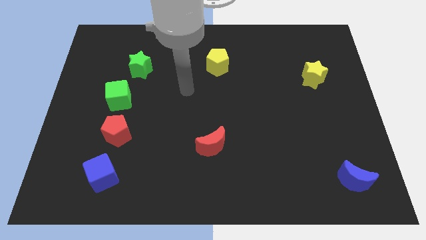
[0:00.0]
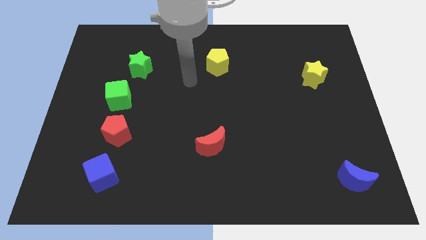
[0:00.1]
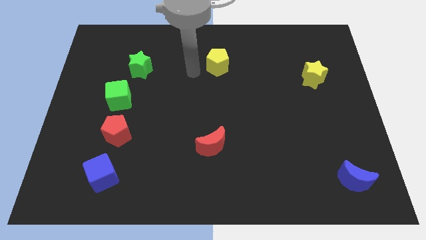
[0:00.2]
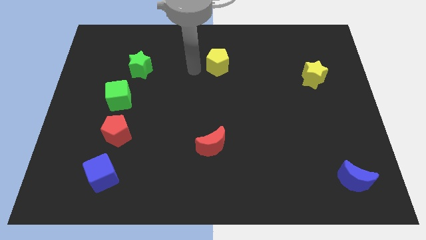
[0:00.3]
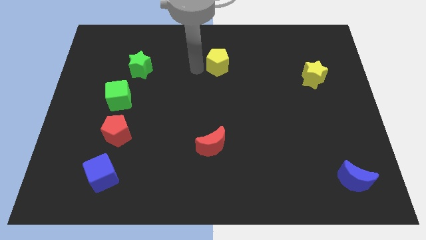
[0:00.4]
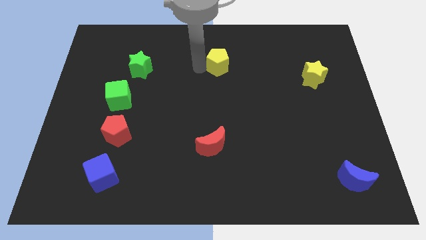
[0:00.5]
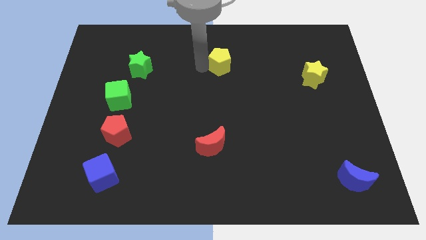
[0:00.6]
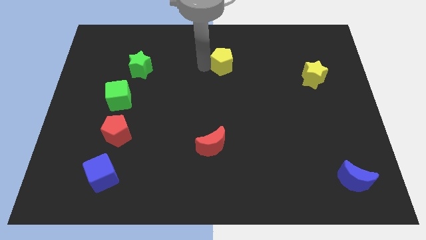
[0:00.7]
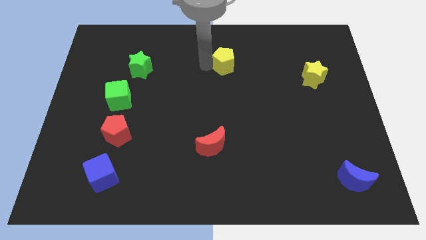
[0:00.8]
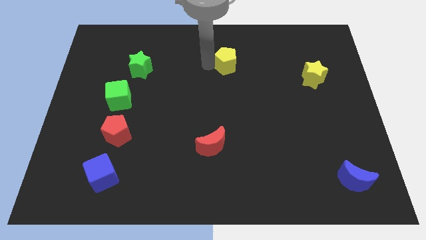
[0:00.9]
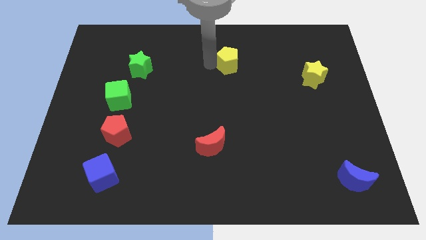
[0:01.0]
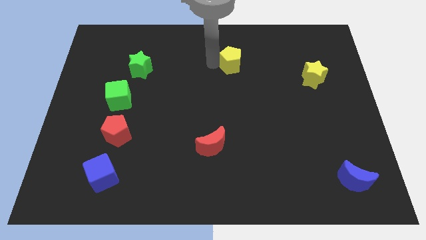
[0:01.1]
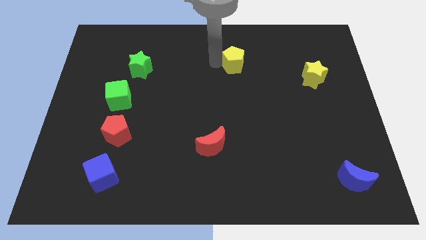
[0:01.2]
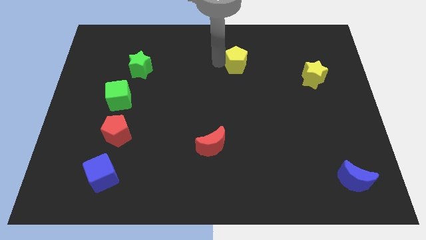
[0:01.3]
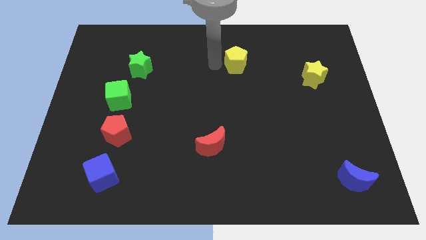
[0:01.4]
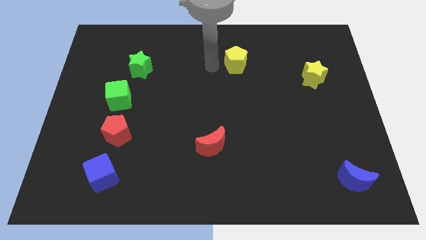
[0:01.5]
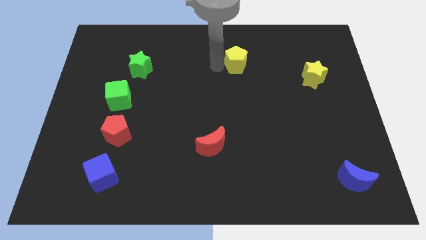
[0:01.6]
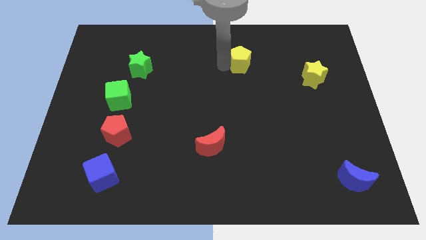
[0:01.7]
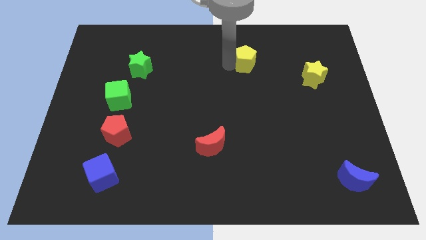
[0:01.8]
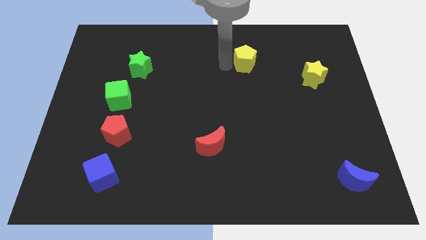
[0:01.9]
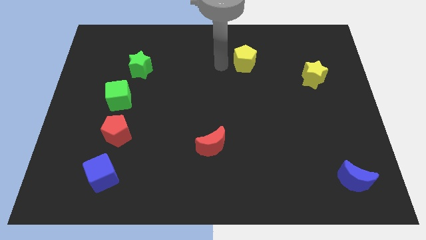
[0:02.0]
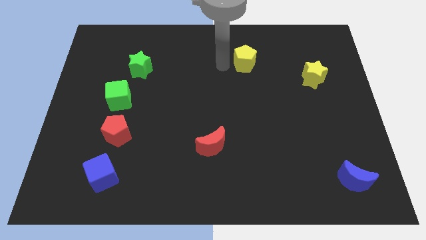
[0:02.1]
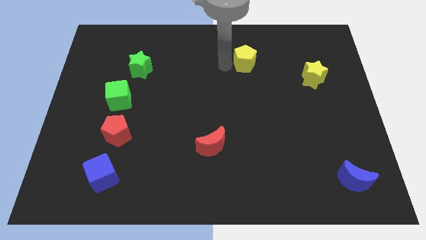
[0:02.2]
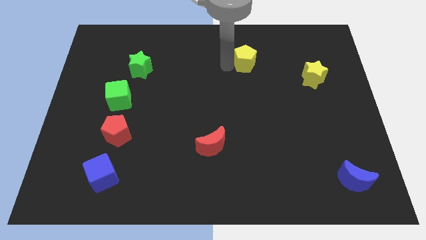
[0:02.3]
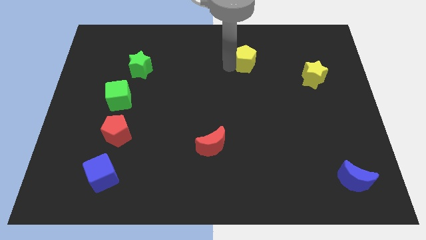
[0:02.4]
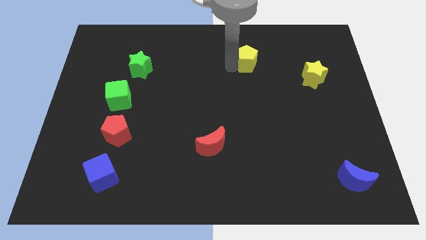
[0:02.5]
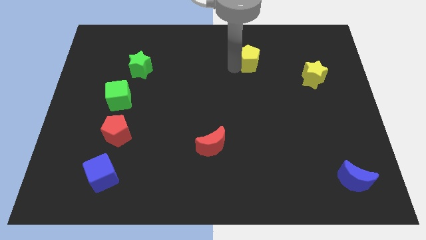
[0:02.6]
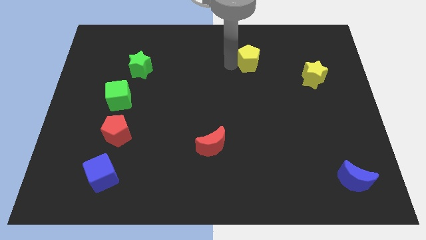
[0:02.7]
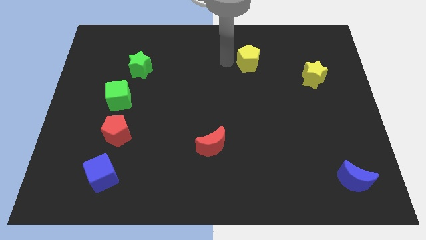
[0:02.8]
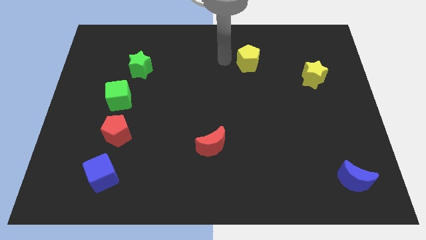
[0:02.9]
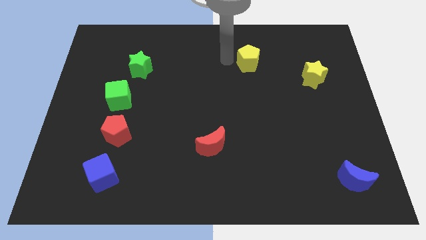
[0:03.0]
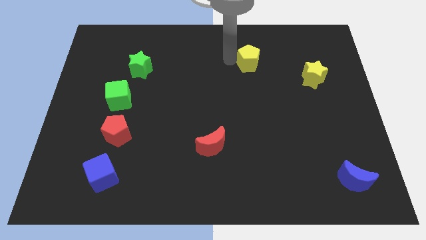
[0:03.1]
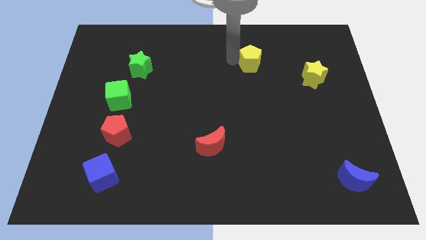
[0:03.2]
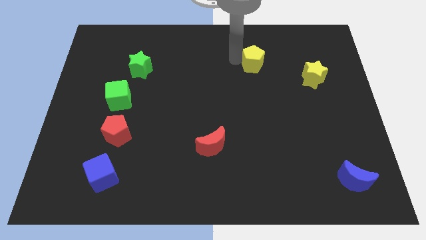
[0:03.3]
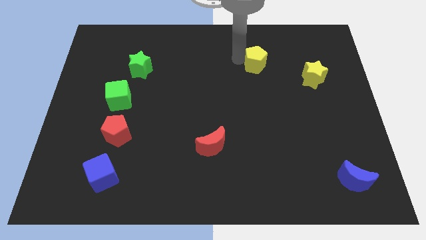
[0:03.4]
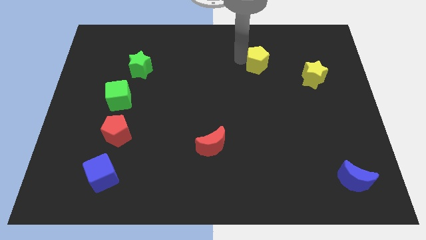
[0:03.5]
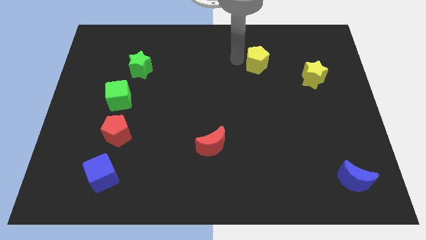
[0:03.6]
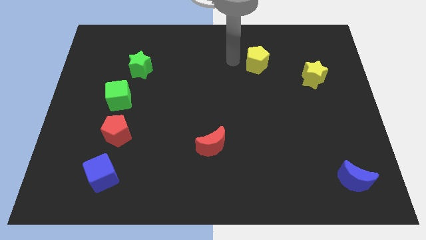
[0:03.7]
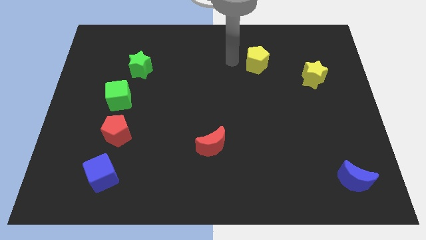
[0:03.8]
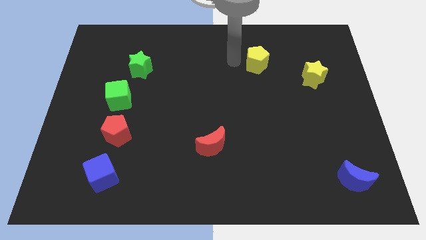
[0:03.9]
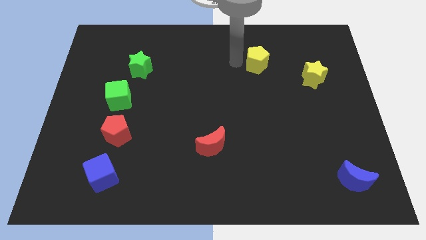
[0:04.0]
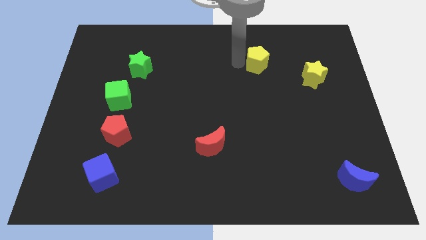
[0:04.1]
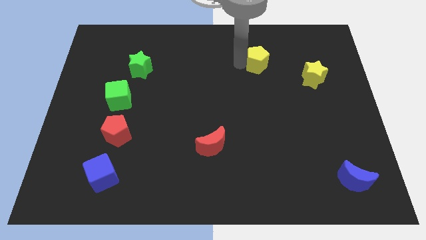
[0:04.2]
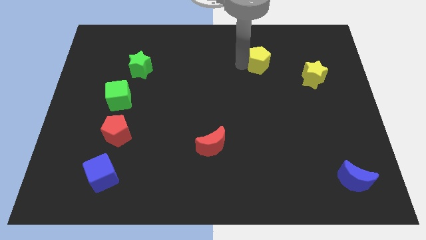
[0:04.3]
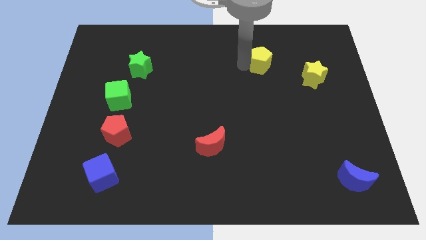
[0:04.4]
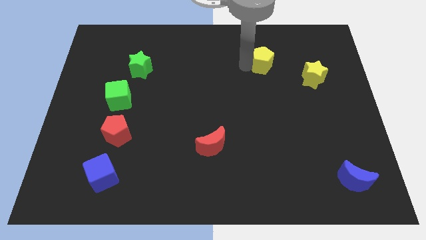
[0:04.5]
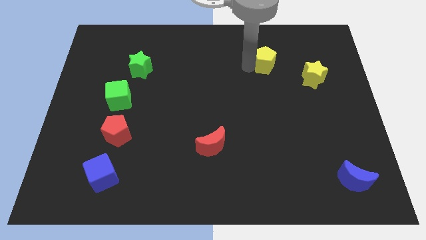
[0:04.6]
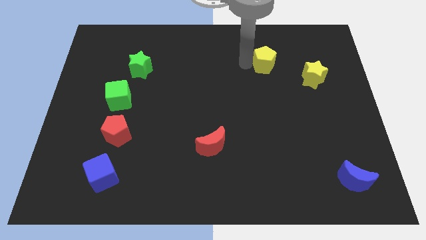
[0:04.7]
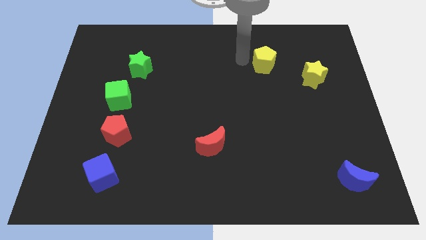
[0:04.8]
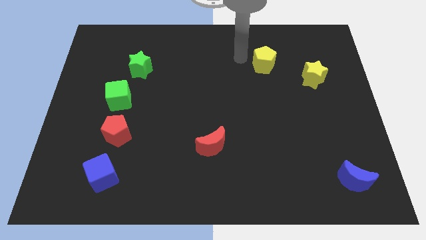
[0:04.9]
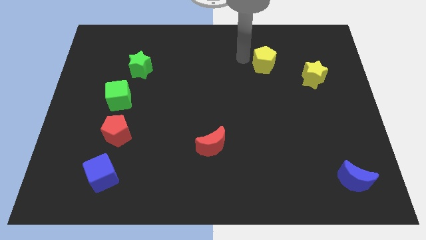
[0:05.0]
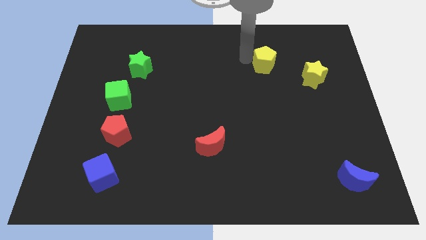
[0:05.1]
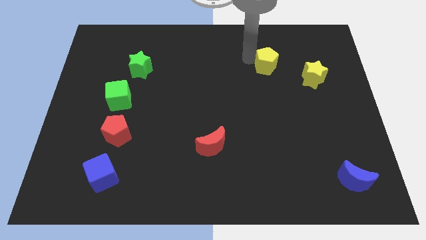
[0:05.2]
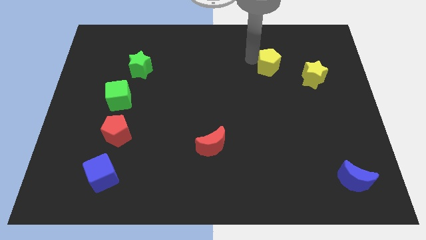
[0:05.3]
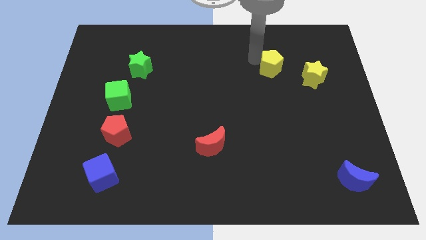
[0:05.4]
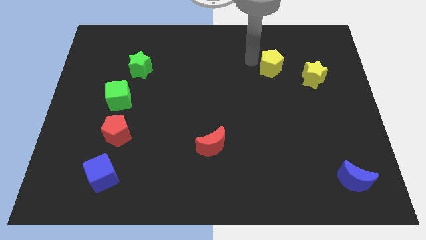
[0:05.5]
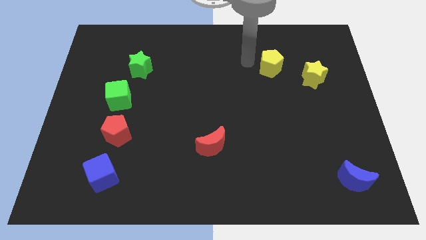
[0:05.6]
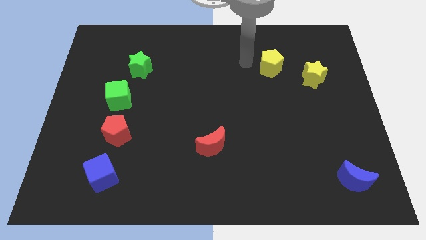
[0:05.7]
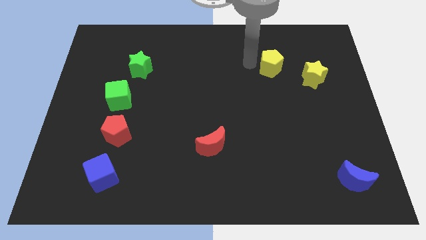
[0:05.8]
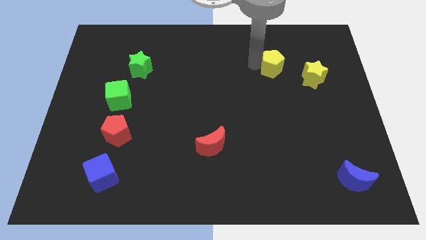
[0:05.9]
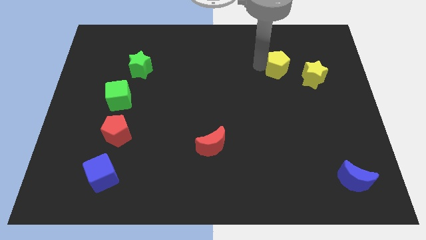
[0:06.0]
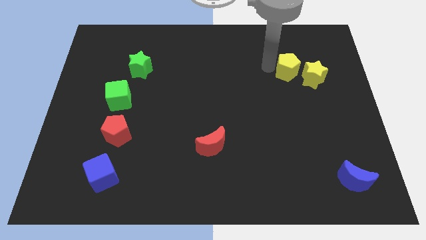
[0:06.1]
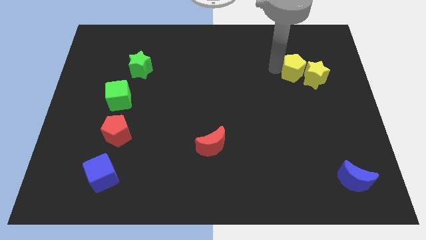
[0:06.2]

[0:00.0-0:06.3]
put the yellow pentagon towards the yellow star

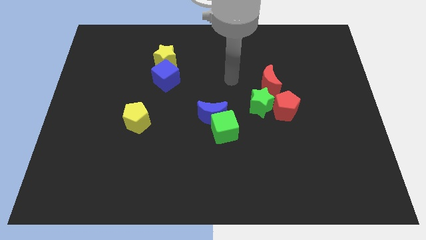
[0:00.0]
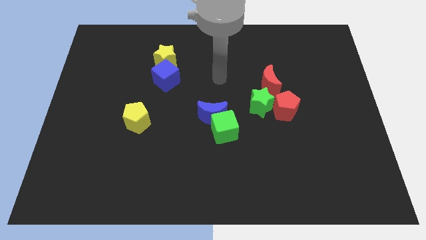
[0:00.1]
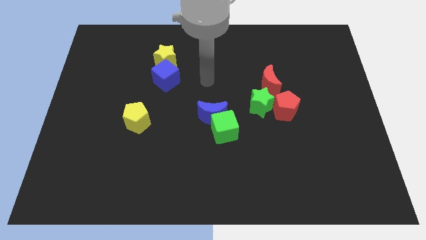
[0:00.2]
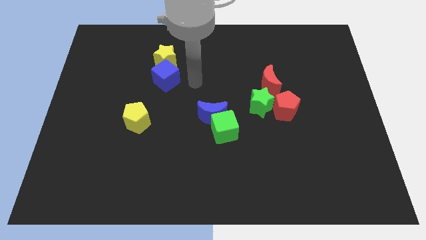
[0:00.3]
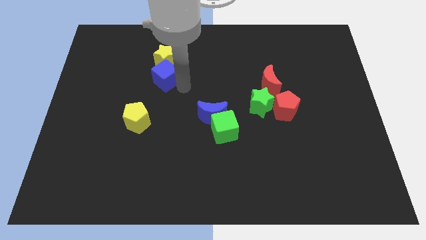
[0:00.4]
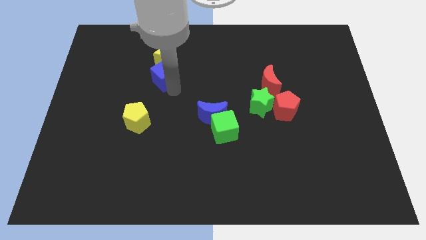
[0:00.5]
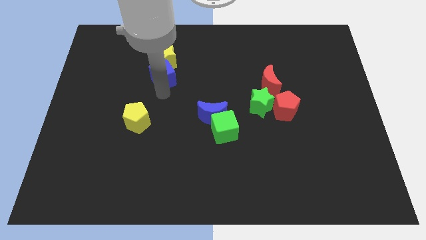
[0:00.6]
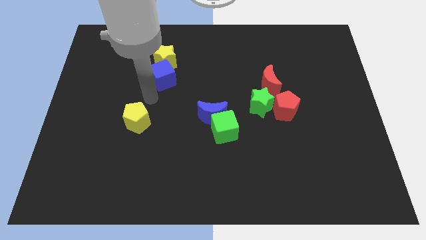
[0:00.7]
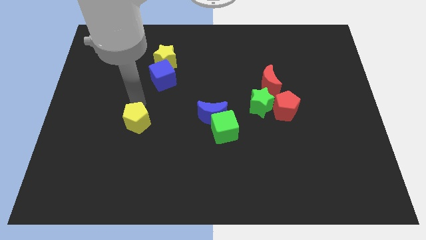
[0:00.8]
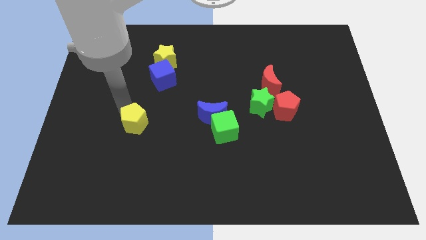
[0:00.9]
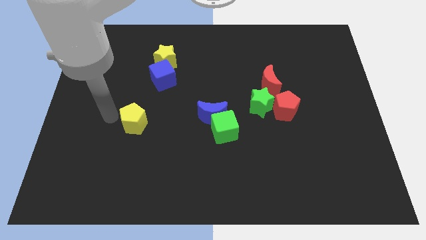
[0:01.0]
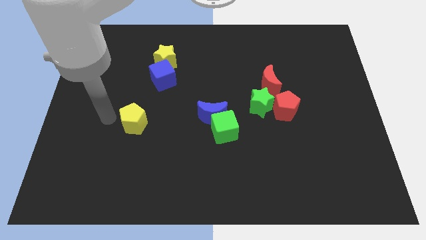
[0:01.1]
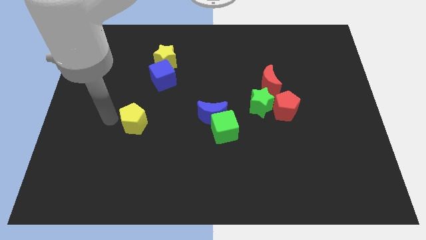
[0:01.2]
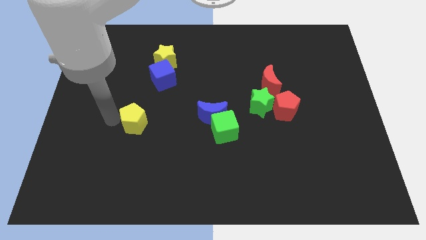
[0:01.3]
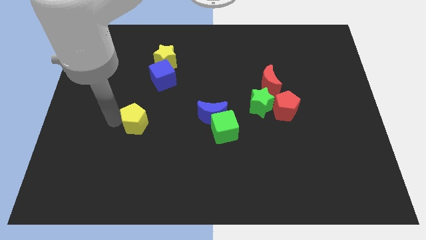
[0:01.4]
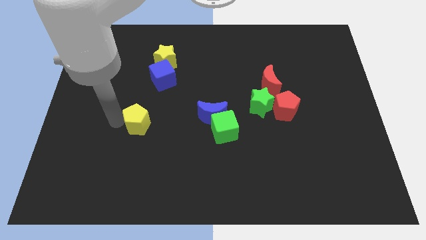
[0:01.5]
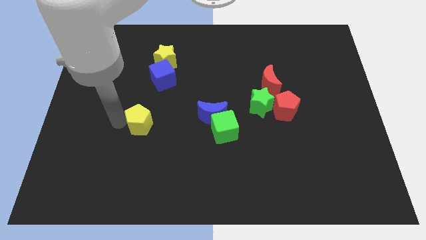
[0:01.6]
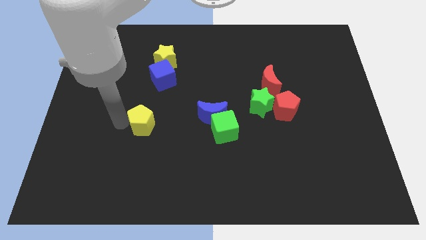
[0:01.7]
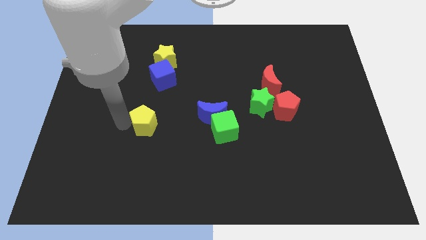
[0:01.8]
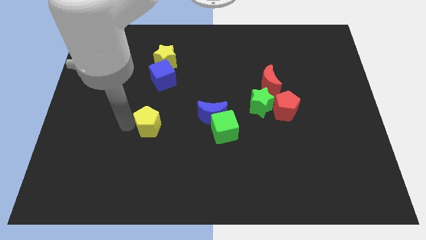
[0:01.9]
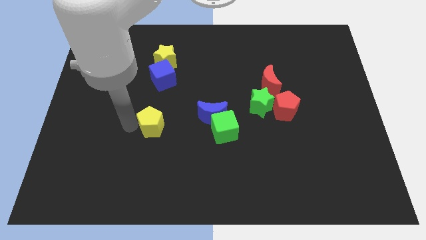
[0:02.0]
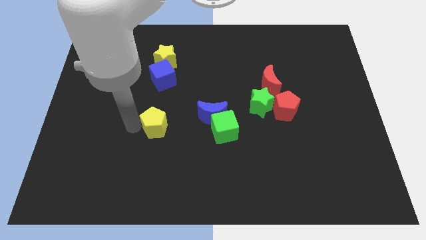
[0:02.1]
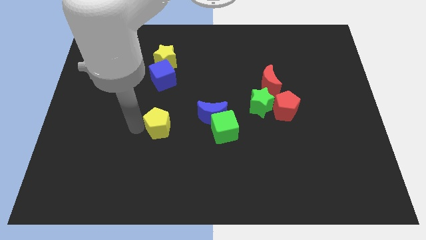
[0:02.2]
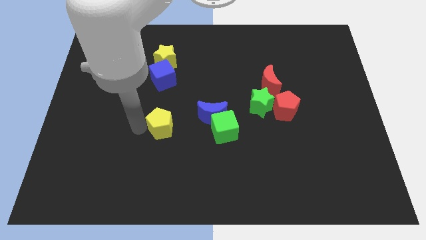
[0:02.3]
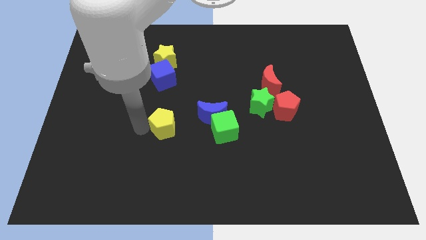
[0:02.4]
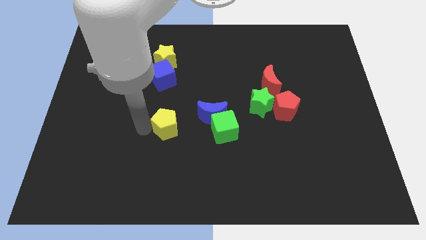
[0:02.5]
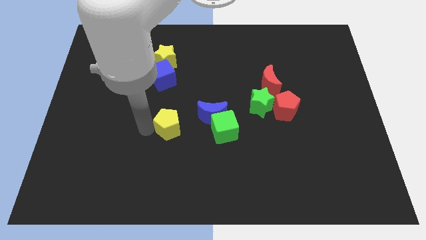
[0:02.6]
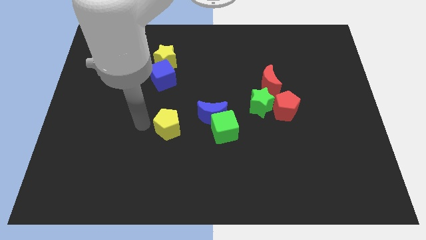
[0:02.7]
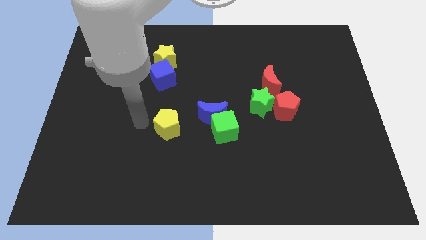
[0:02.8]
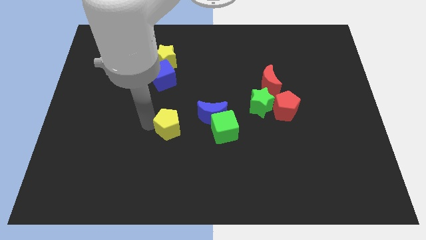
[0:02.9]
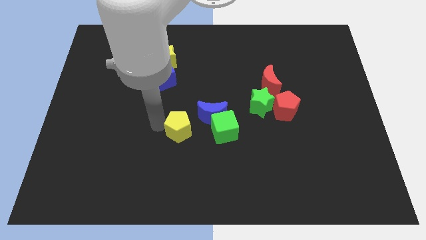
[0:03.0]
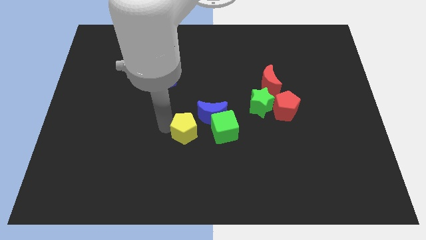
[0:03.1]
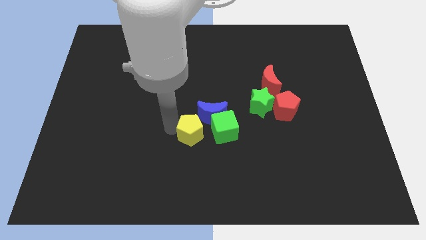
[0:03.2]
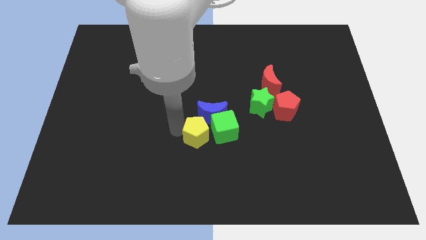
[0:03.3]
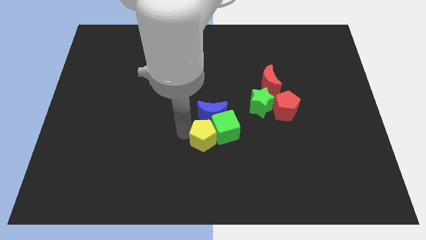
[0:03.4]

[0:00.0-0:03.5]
move the yellow pentagon towards the green cube
